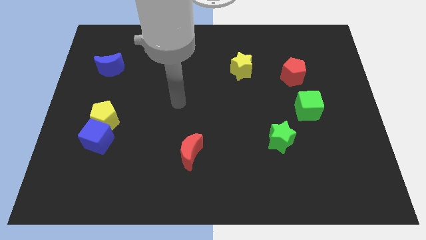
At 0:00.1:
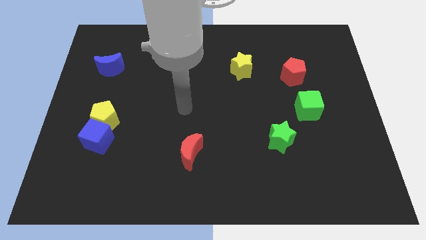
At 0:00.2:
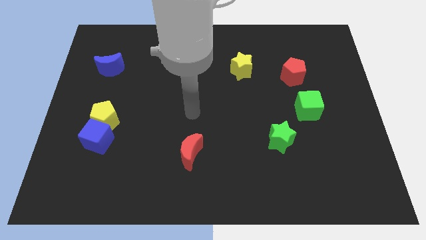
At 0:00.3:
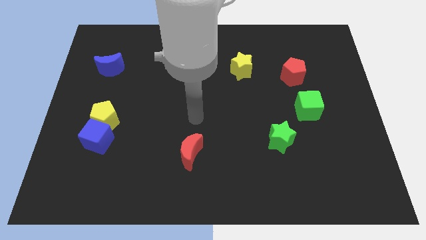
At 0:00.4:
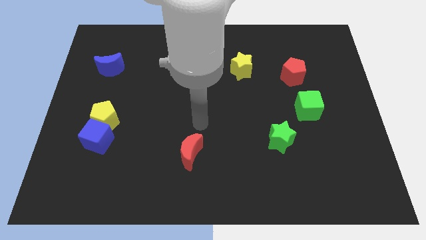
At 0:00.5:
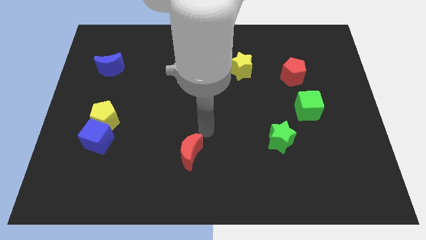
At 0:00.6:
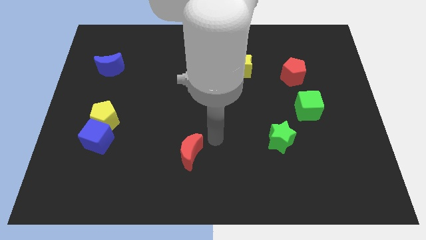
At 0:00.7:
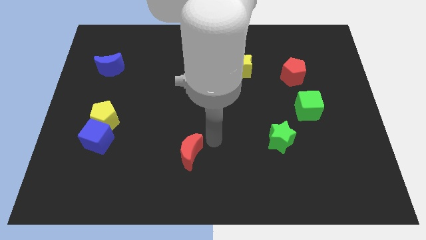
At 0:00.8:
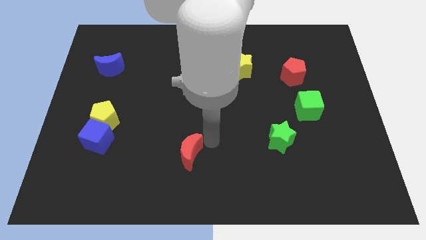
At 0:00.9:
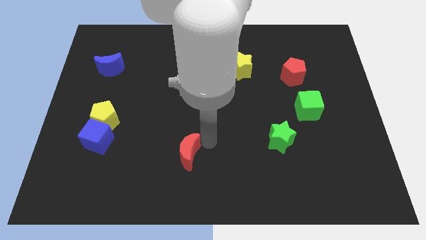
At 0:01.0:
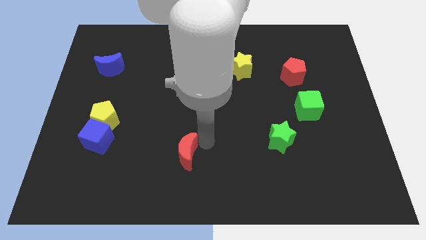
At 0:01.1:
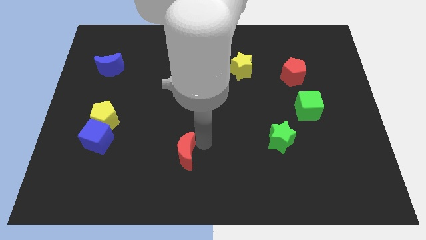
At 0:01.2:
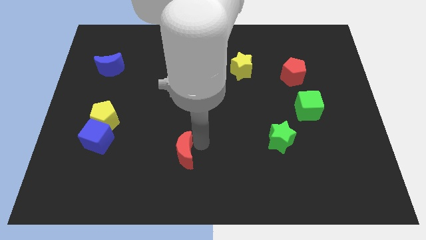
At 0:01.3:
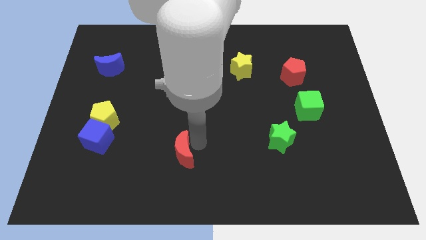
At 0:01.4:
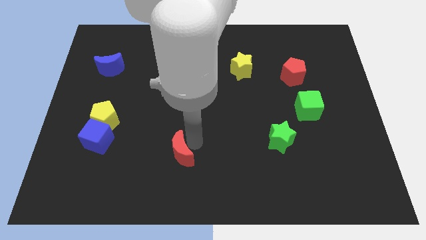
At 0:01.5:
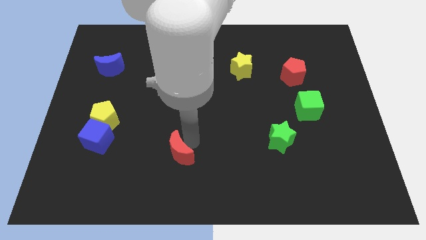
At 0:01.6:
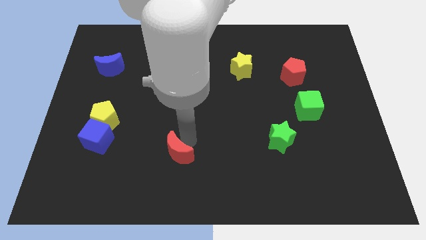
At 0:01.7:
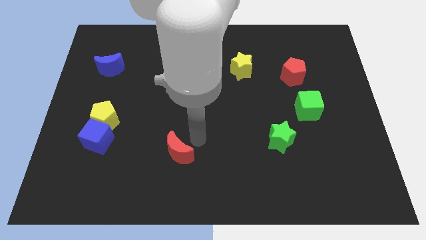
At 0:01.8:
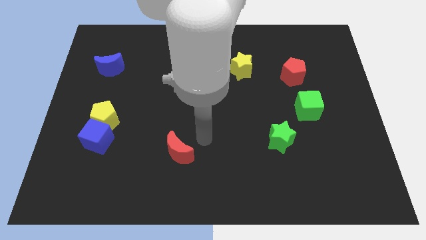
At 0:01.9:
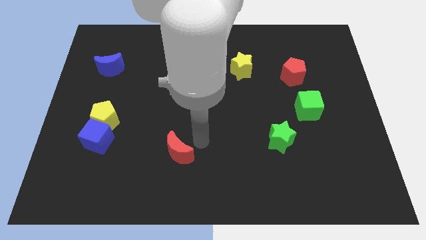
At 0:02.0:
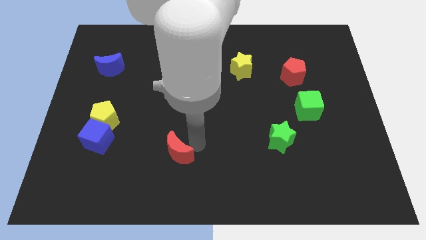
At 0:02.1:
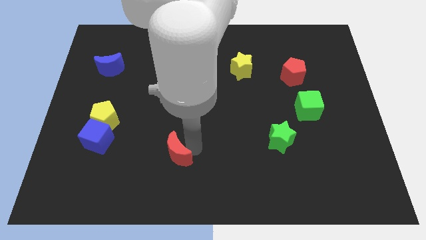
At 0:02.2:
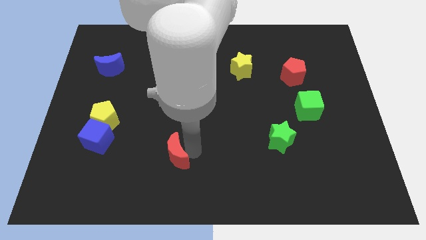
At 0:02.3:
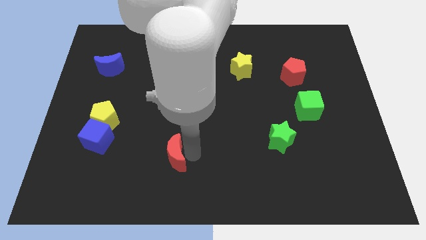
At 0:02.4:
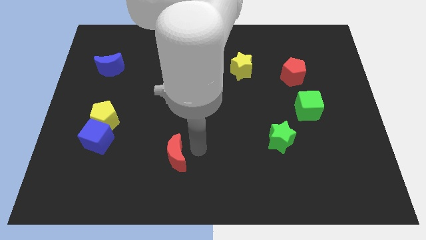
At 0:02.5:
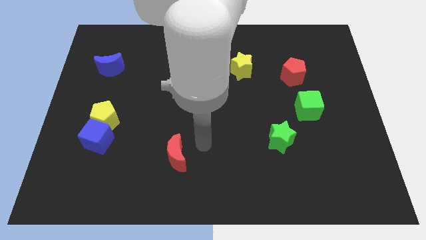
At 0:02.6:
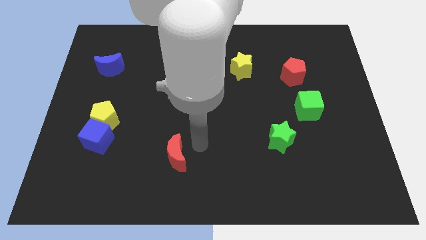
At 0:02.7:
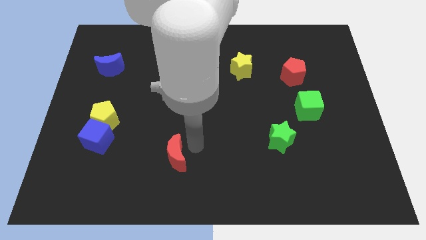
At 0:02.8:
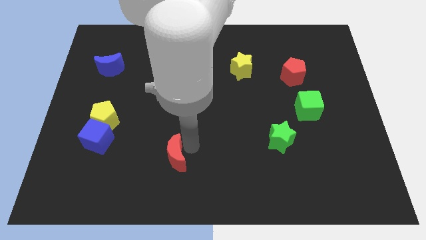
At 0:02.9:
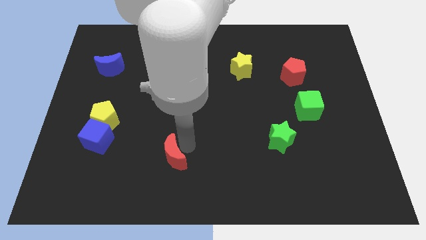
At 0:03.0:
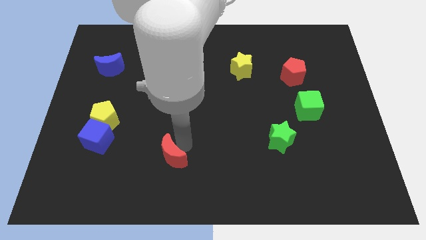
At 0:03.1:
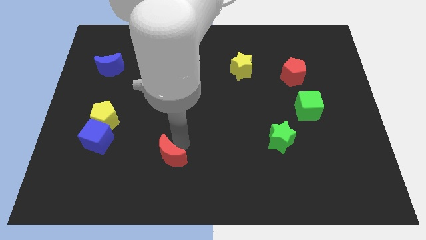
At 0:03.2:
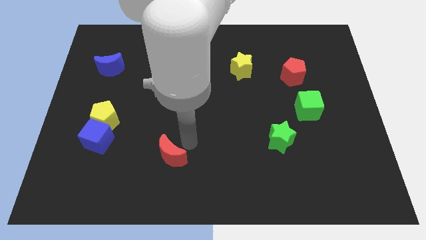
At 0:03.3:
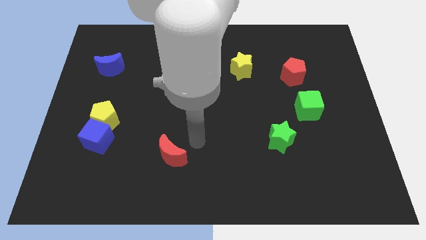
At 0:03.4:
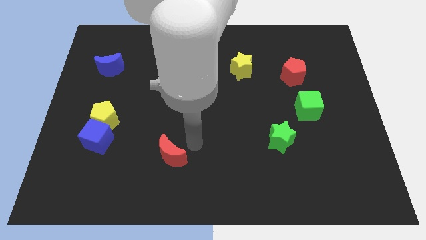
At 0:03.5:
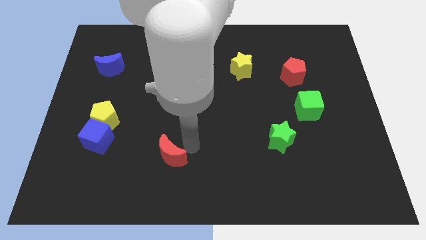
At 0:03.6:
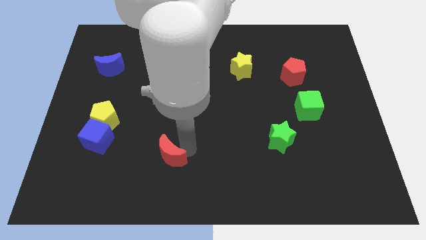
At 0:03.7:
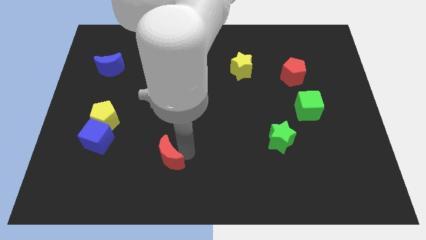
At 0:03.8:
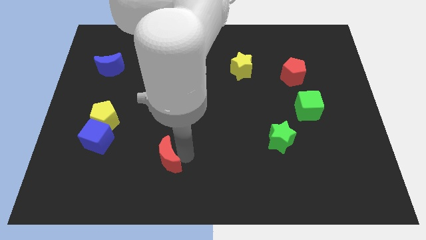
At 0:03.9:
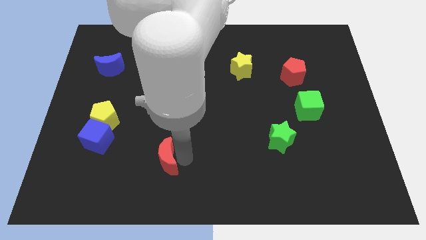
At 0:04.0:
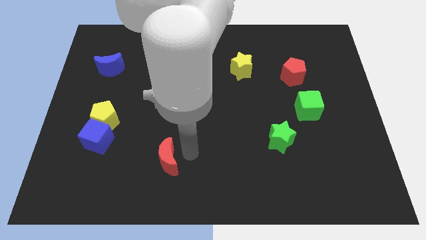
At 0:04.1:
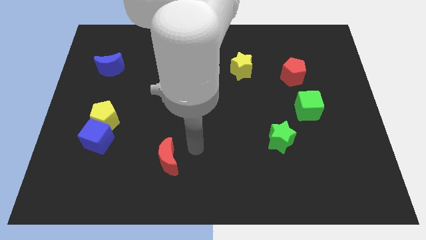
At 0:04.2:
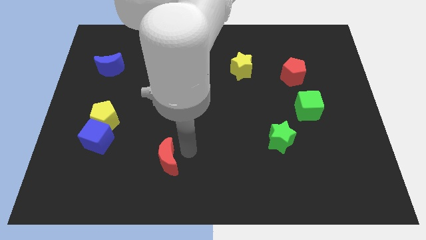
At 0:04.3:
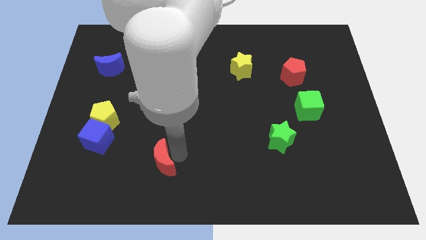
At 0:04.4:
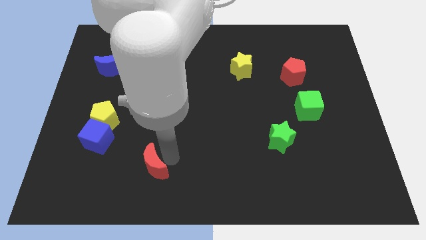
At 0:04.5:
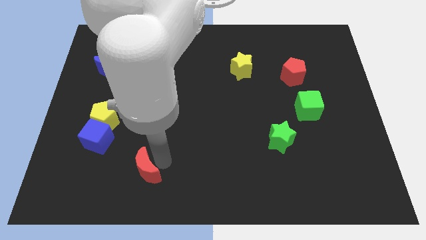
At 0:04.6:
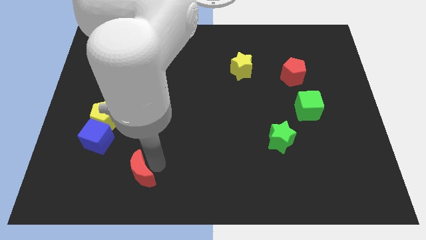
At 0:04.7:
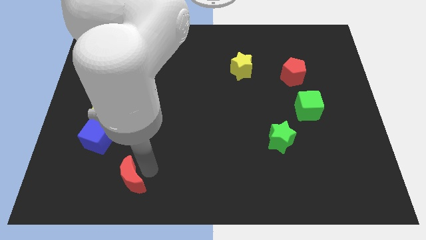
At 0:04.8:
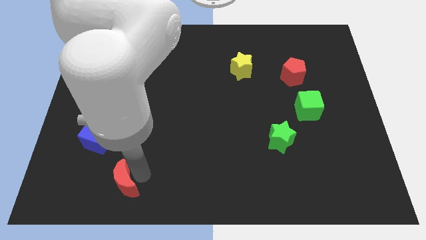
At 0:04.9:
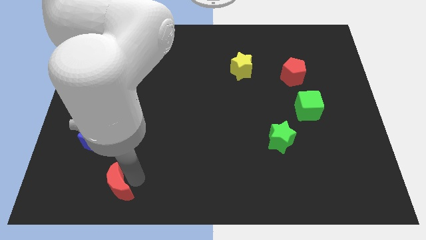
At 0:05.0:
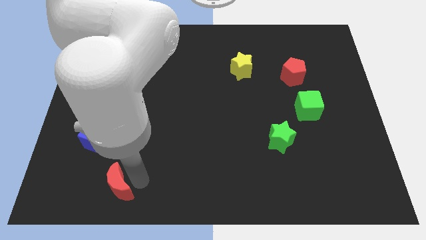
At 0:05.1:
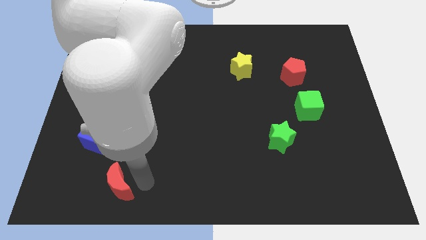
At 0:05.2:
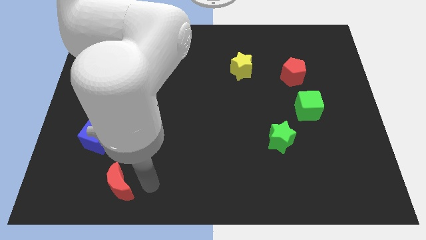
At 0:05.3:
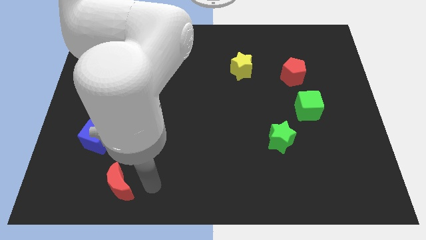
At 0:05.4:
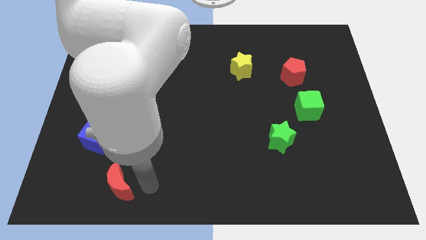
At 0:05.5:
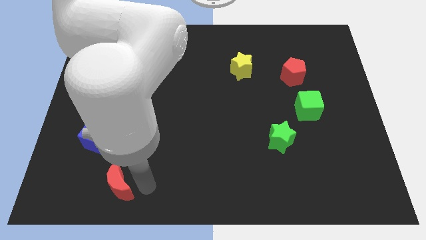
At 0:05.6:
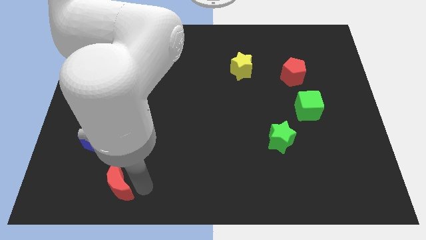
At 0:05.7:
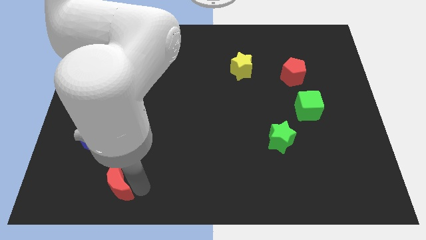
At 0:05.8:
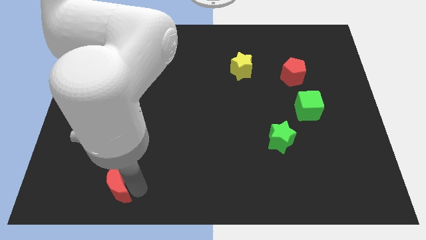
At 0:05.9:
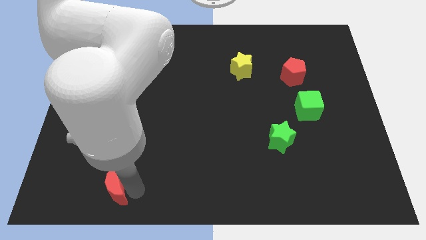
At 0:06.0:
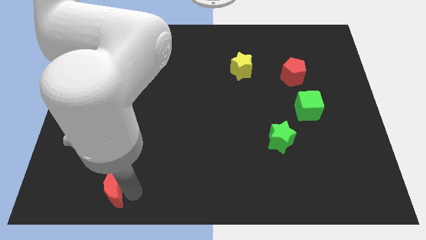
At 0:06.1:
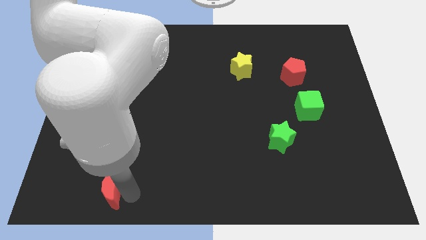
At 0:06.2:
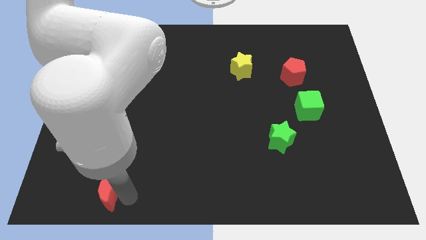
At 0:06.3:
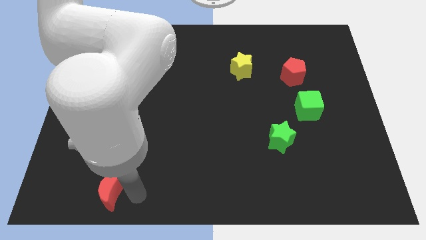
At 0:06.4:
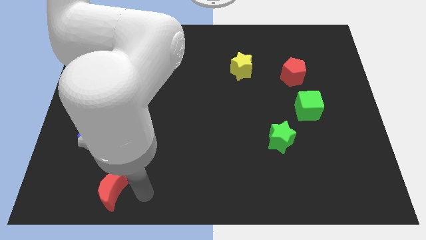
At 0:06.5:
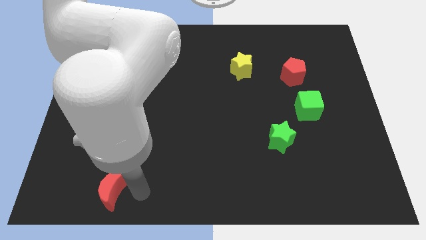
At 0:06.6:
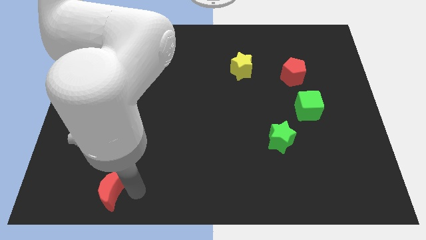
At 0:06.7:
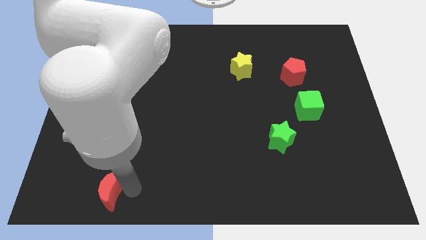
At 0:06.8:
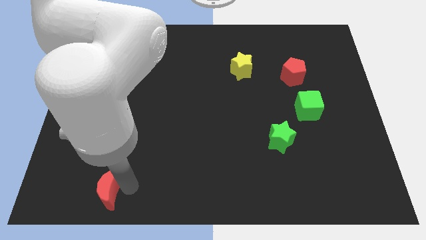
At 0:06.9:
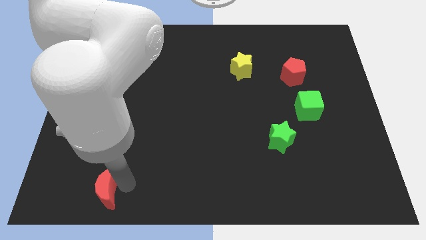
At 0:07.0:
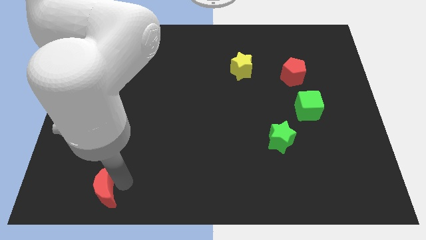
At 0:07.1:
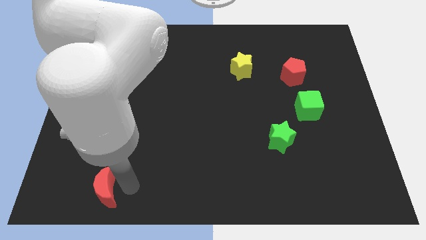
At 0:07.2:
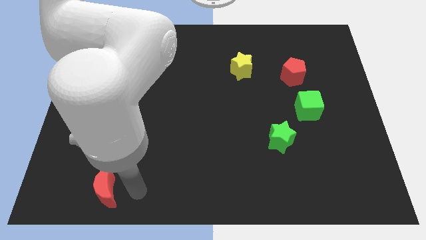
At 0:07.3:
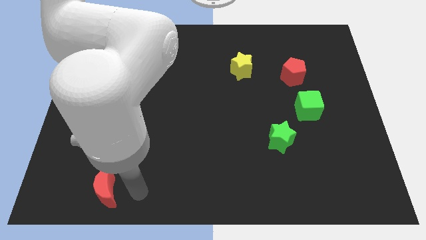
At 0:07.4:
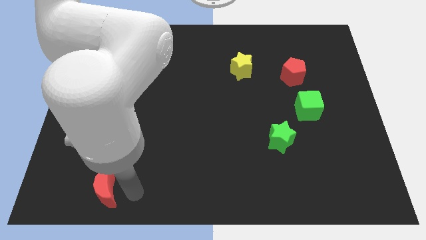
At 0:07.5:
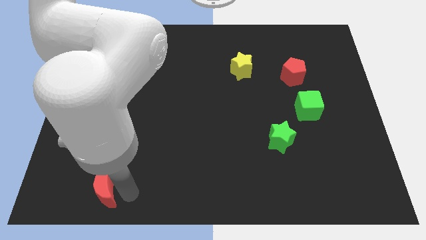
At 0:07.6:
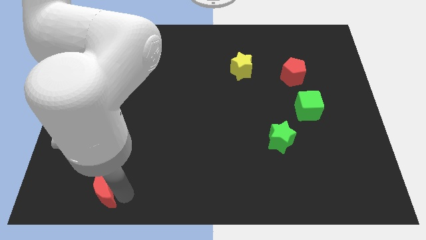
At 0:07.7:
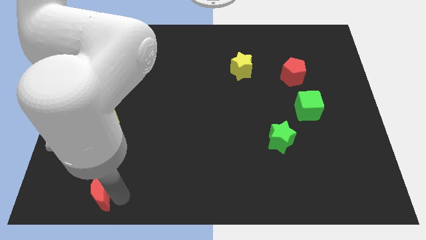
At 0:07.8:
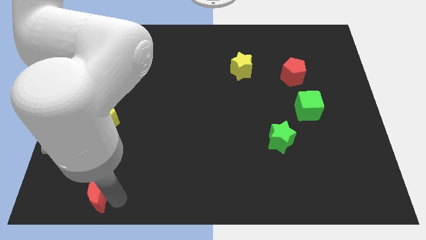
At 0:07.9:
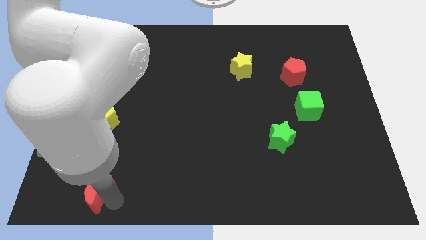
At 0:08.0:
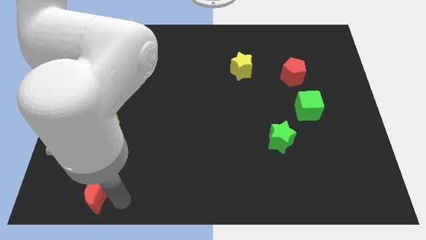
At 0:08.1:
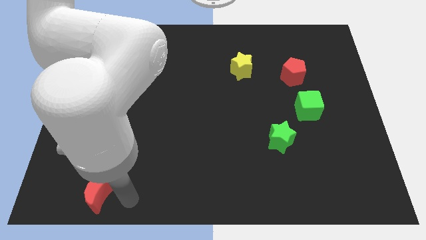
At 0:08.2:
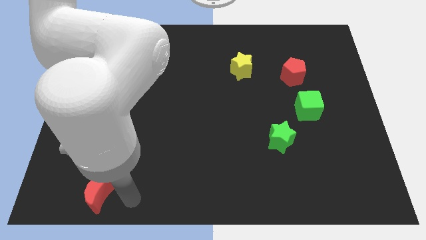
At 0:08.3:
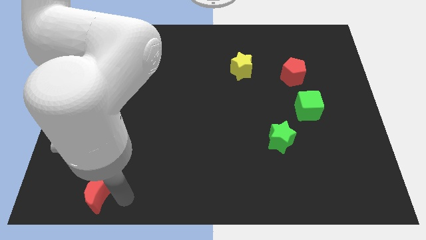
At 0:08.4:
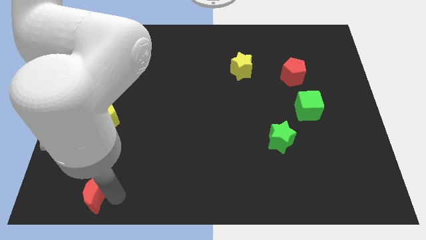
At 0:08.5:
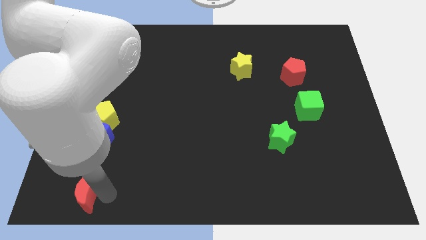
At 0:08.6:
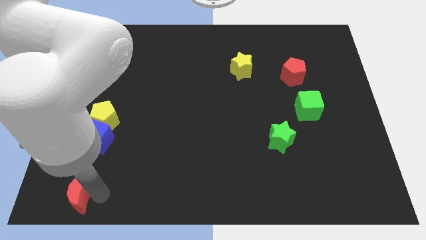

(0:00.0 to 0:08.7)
put the red moon to the bottom left of the board
